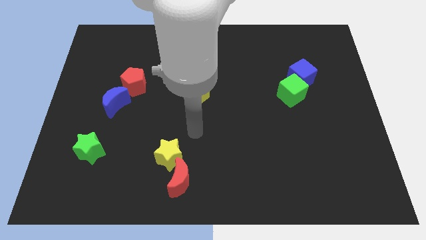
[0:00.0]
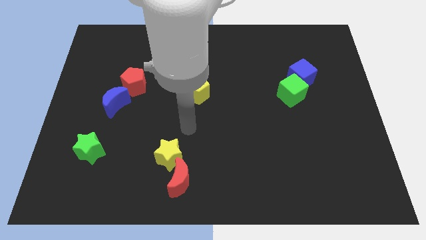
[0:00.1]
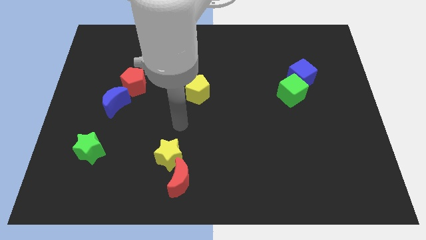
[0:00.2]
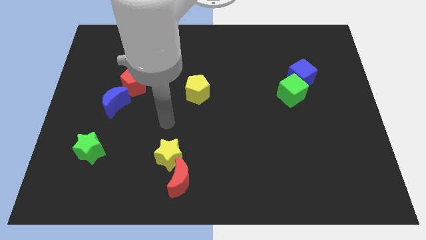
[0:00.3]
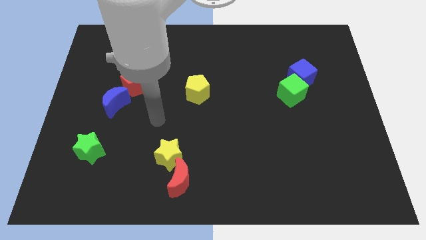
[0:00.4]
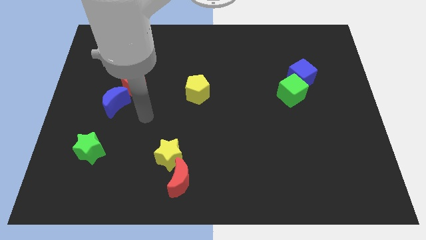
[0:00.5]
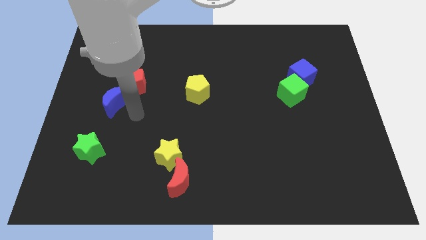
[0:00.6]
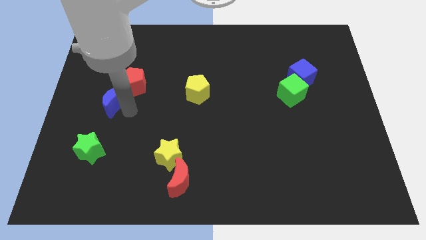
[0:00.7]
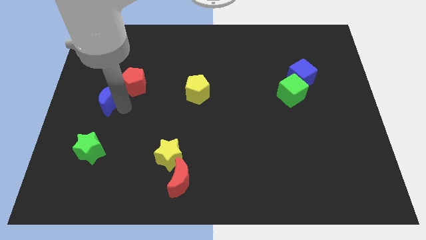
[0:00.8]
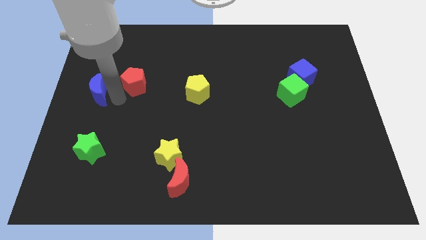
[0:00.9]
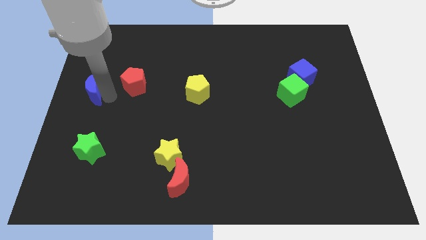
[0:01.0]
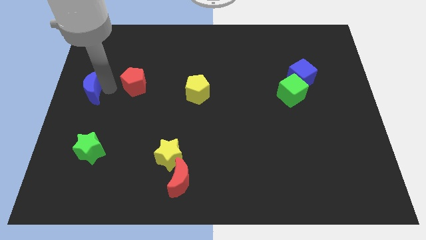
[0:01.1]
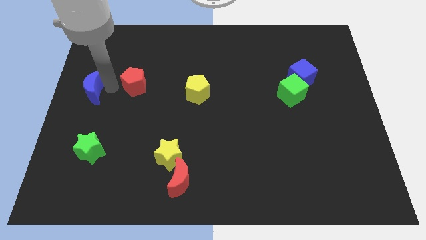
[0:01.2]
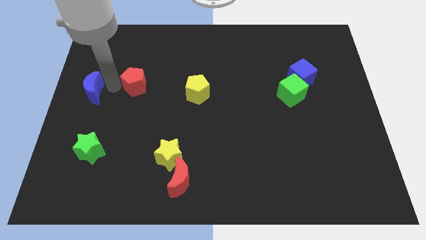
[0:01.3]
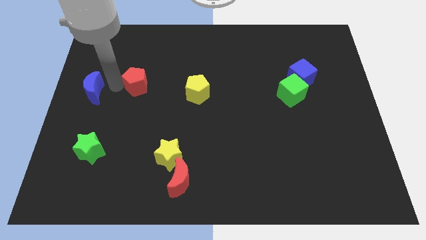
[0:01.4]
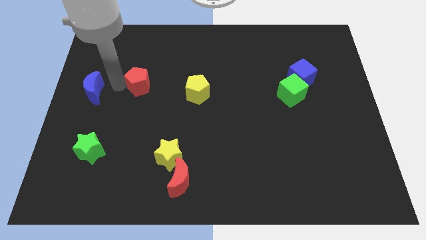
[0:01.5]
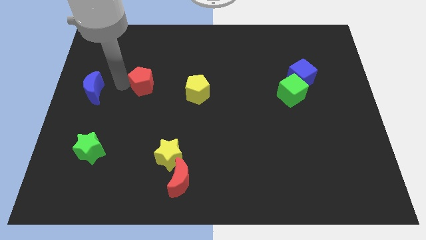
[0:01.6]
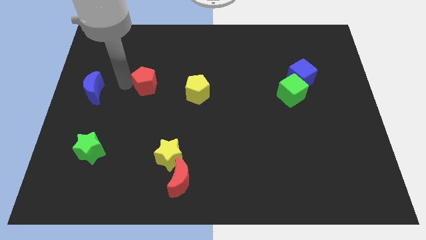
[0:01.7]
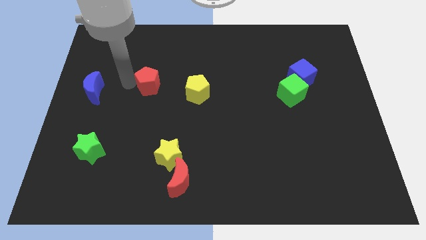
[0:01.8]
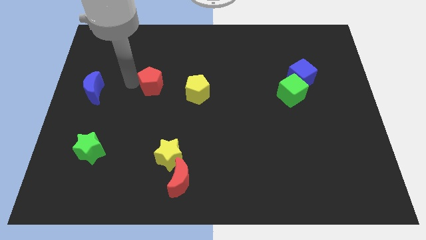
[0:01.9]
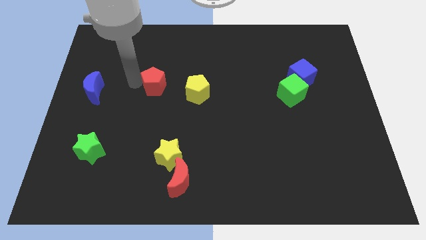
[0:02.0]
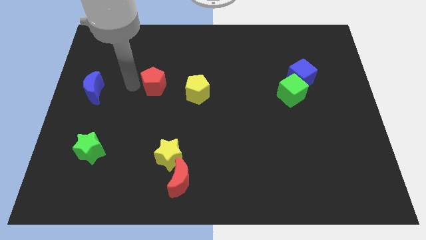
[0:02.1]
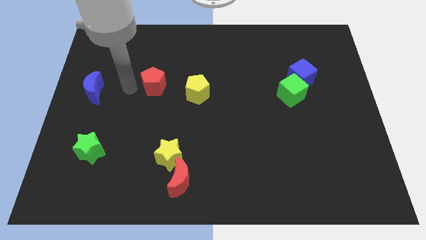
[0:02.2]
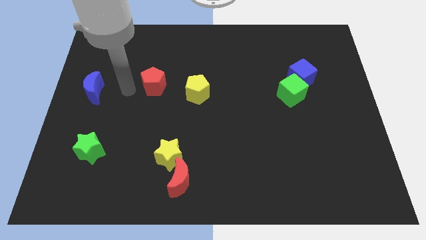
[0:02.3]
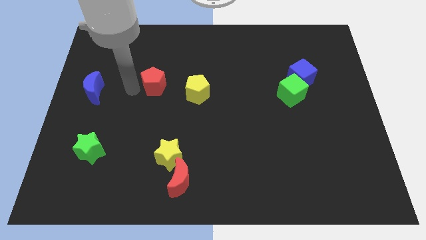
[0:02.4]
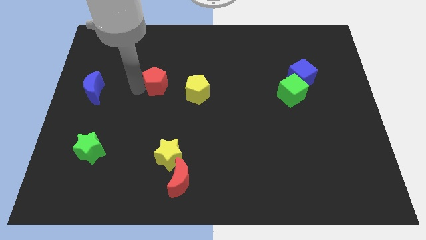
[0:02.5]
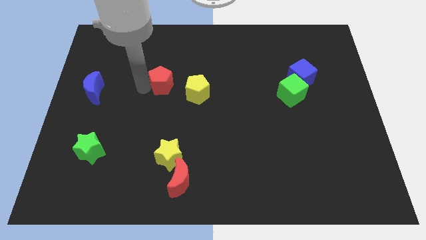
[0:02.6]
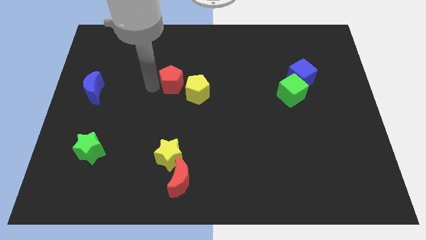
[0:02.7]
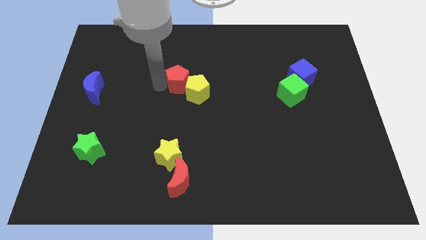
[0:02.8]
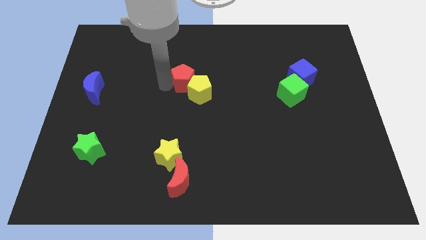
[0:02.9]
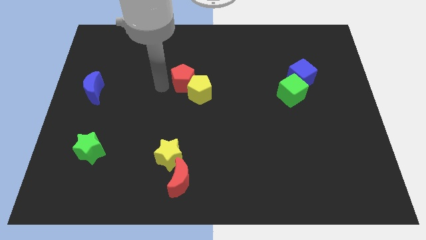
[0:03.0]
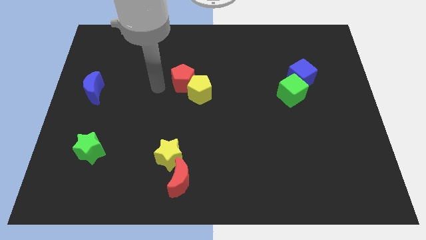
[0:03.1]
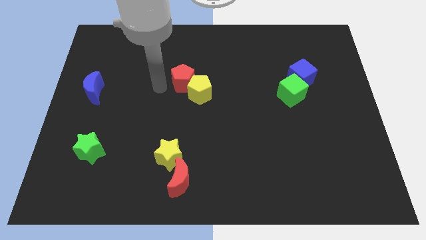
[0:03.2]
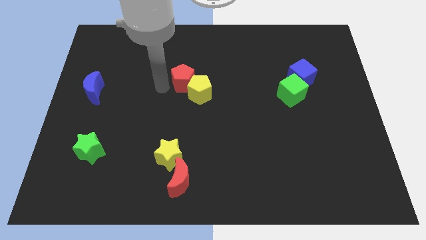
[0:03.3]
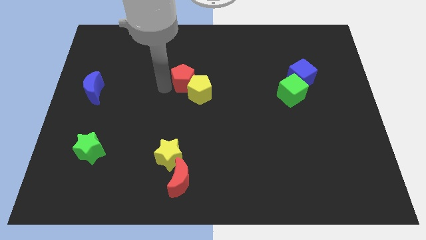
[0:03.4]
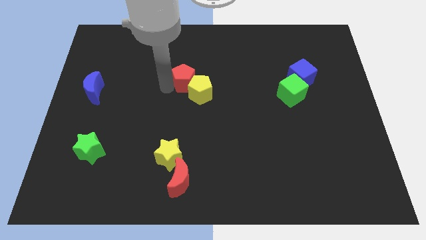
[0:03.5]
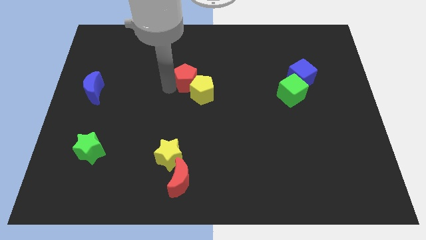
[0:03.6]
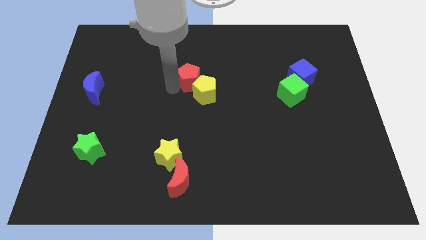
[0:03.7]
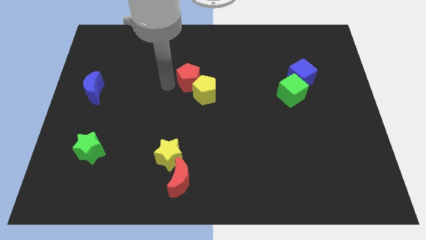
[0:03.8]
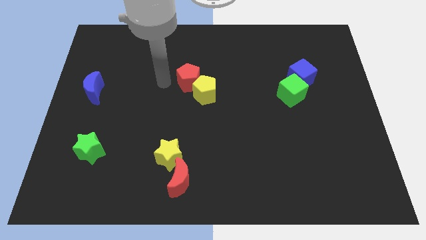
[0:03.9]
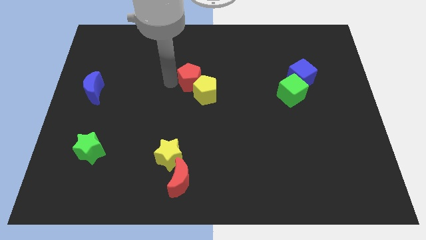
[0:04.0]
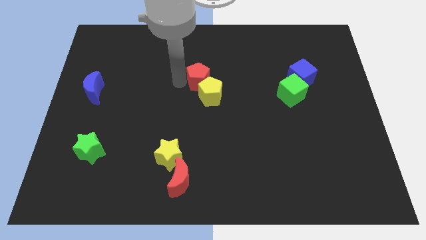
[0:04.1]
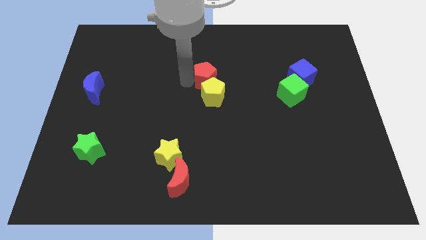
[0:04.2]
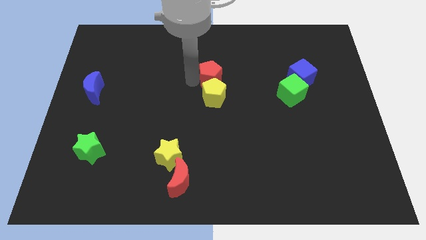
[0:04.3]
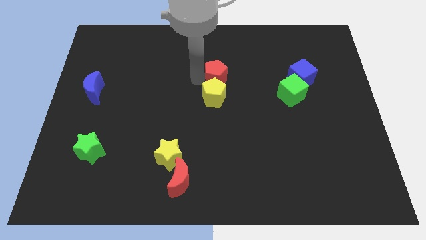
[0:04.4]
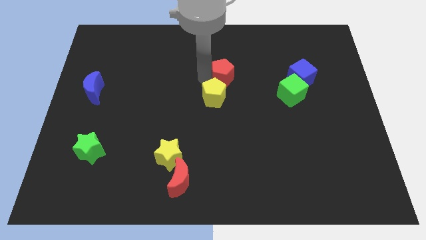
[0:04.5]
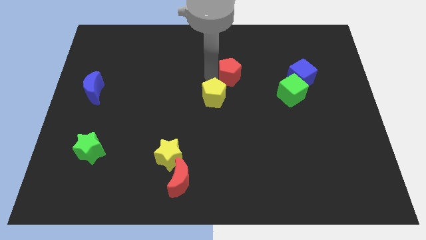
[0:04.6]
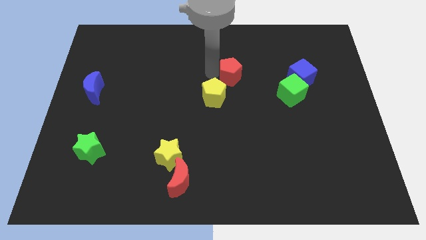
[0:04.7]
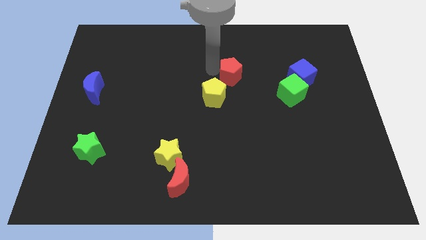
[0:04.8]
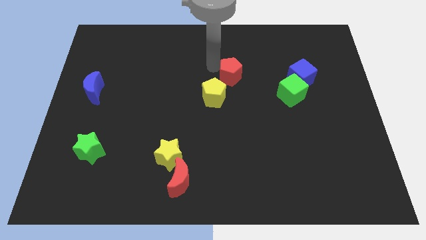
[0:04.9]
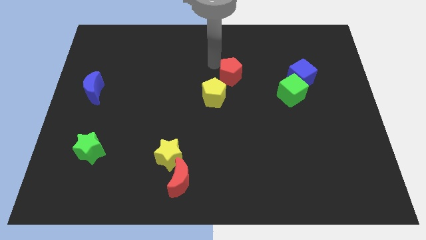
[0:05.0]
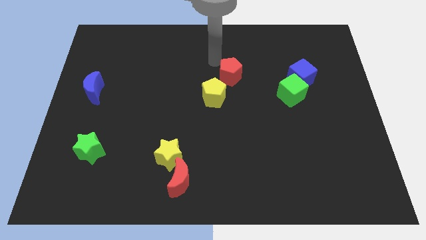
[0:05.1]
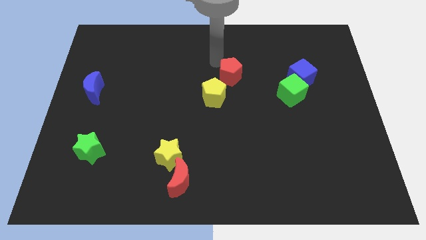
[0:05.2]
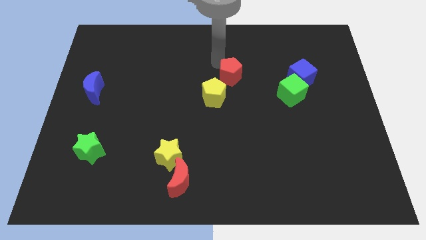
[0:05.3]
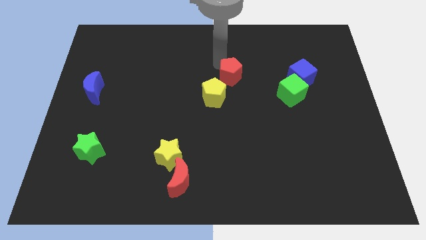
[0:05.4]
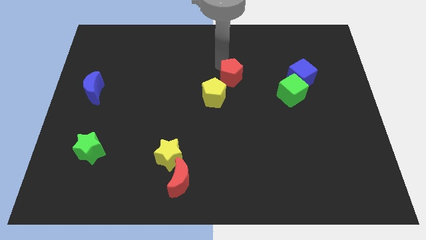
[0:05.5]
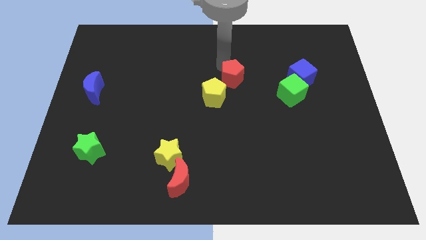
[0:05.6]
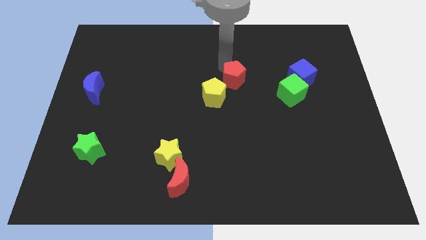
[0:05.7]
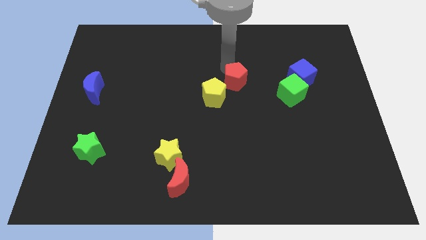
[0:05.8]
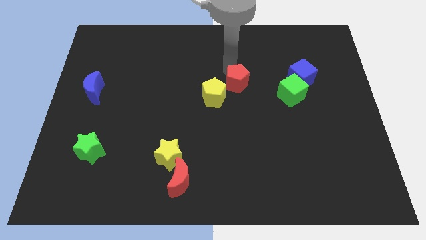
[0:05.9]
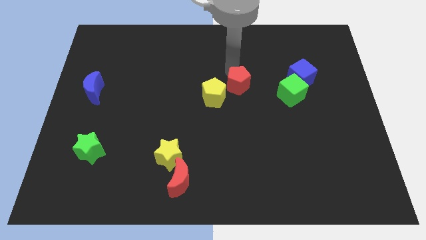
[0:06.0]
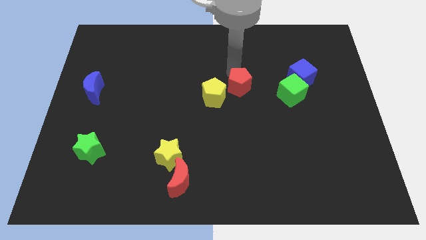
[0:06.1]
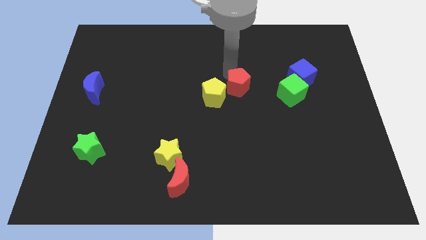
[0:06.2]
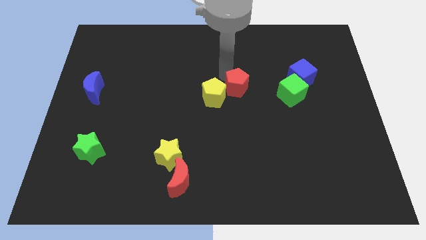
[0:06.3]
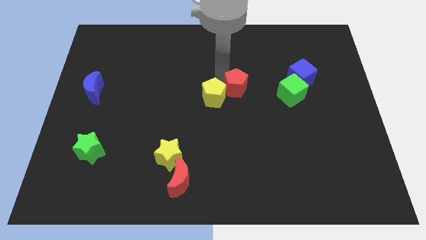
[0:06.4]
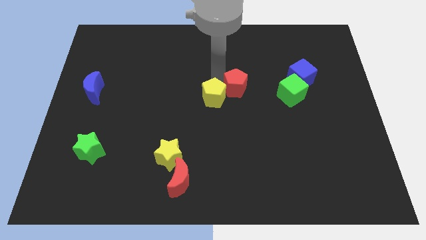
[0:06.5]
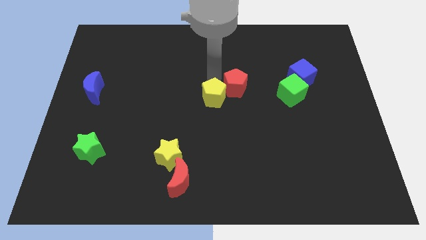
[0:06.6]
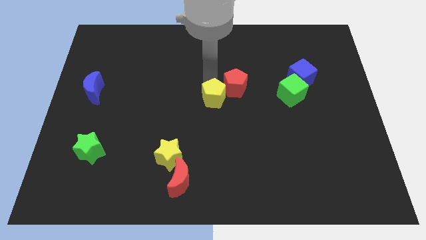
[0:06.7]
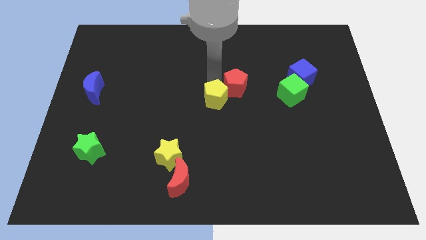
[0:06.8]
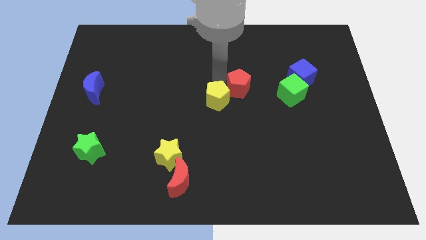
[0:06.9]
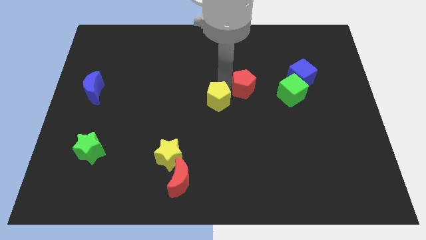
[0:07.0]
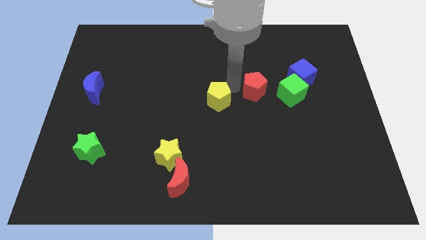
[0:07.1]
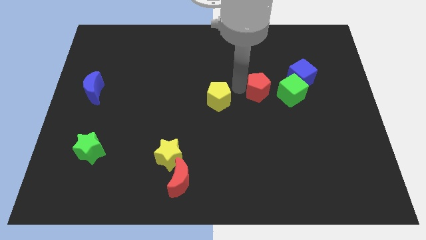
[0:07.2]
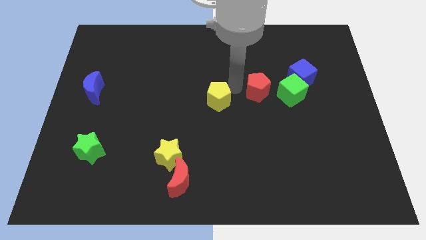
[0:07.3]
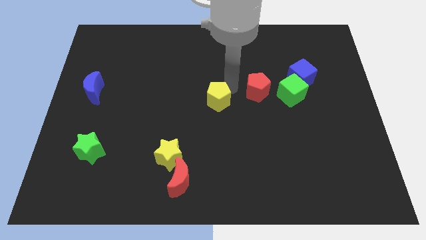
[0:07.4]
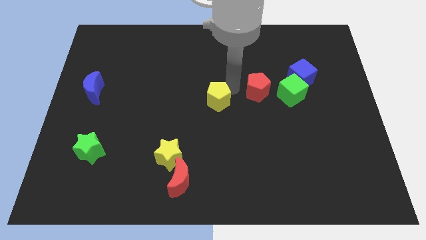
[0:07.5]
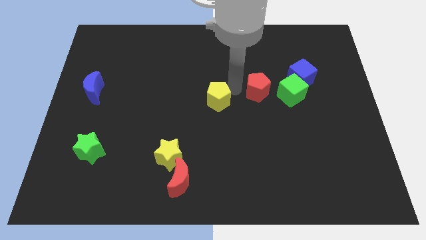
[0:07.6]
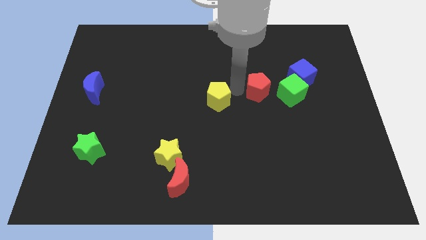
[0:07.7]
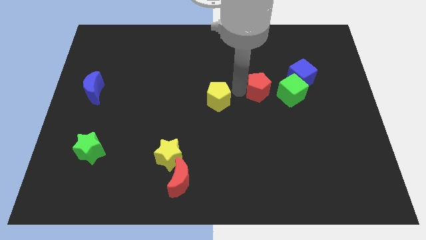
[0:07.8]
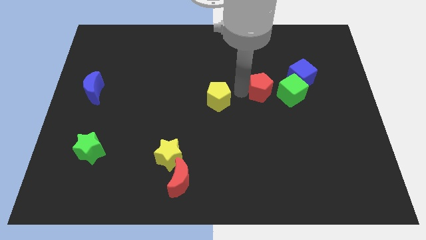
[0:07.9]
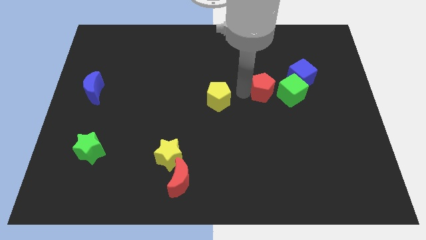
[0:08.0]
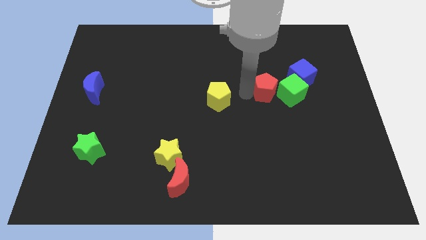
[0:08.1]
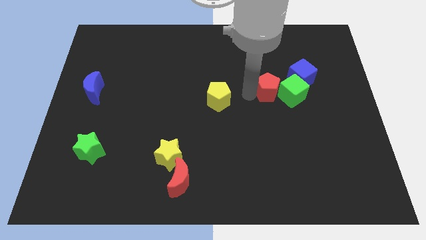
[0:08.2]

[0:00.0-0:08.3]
move the red pentagon next to the green cube
